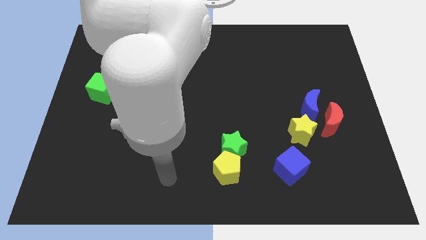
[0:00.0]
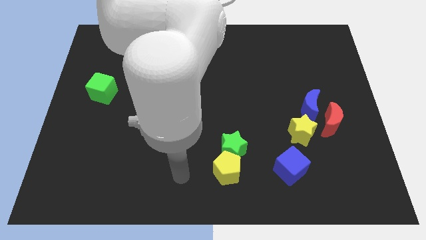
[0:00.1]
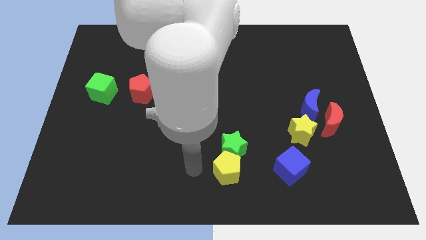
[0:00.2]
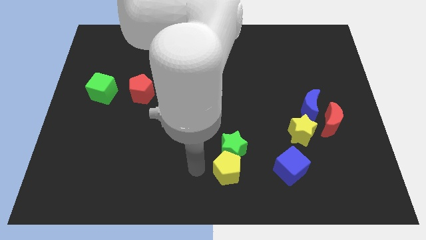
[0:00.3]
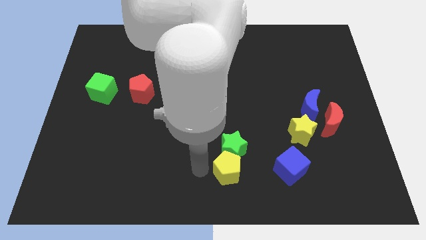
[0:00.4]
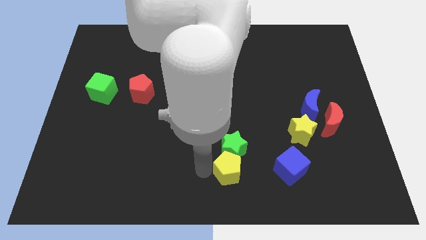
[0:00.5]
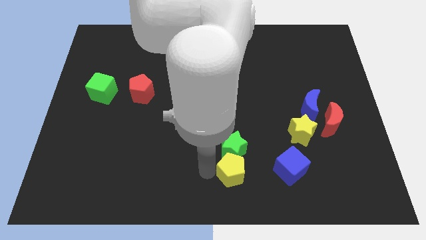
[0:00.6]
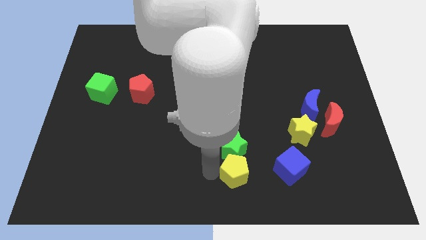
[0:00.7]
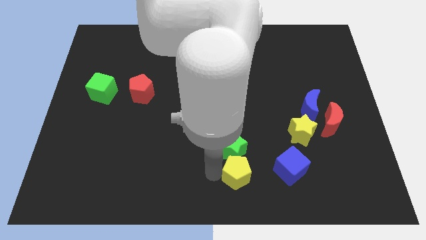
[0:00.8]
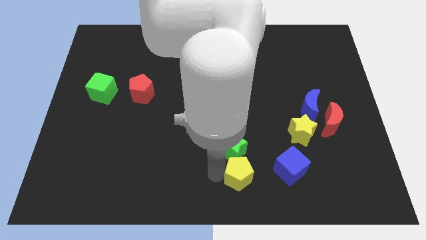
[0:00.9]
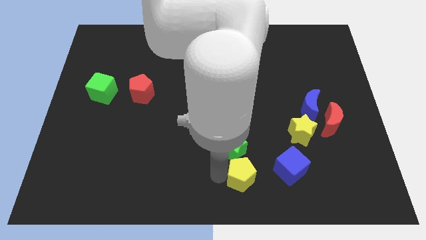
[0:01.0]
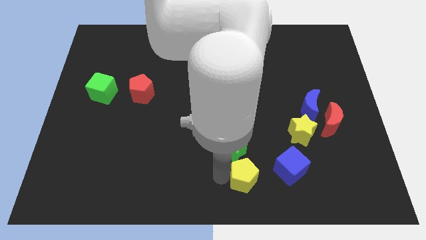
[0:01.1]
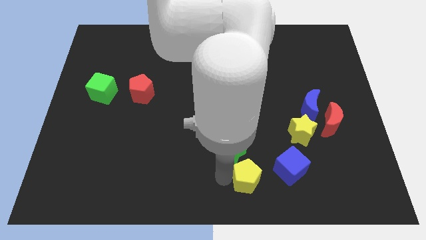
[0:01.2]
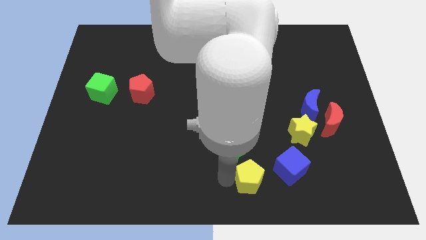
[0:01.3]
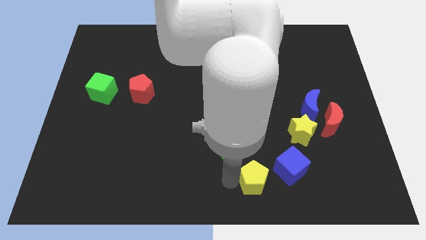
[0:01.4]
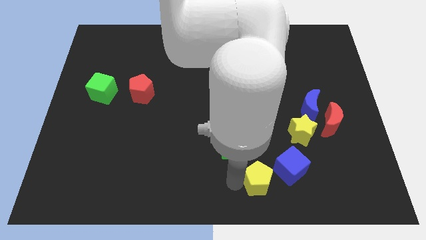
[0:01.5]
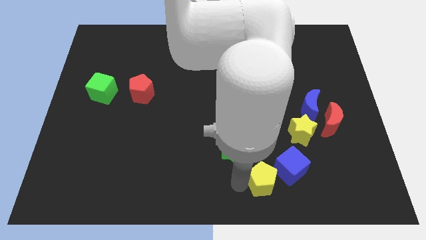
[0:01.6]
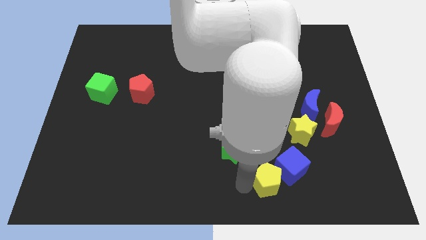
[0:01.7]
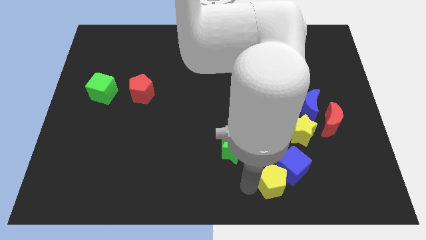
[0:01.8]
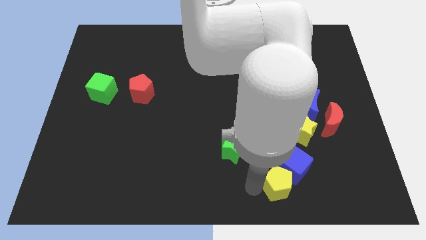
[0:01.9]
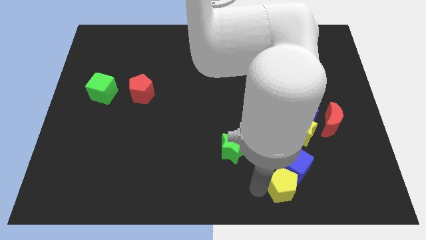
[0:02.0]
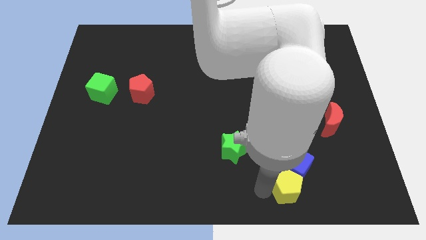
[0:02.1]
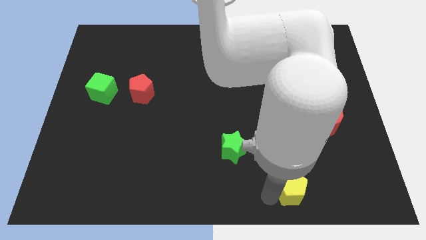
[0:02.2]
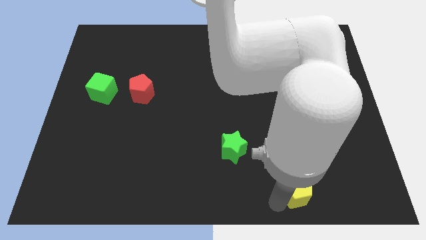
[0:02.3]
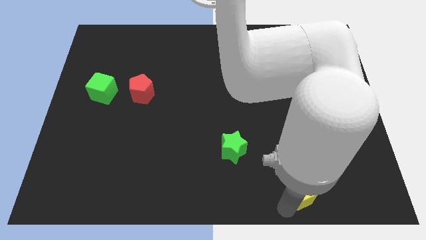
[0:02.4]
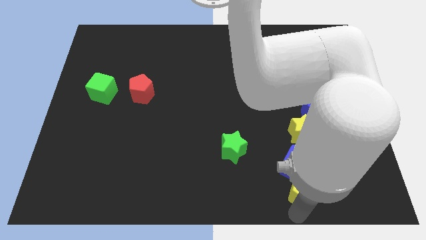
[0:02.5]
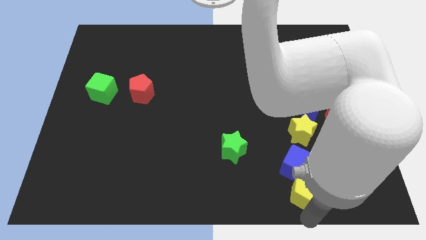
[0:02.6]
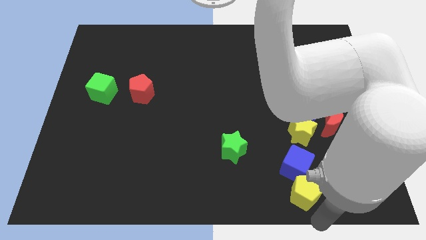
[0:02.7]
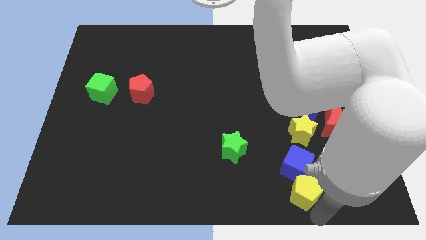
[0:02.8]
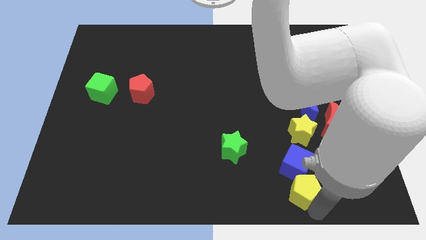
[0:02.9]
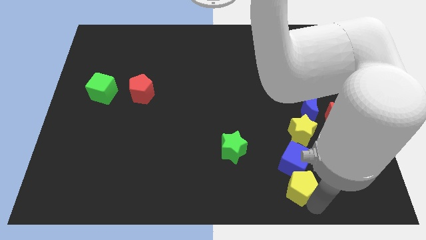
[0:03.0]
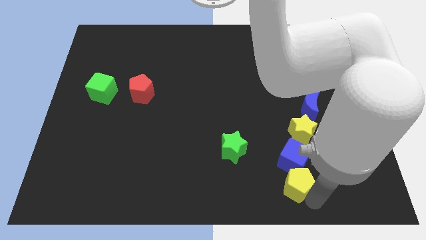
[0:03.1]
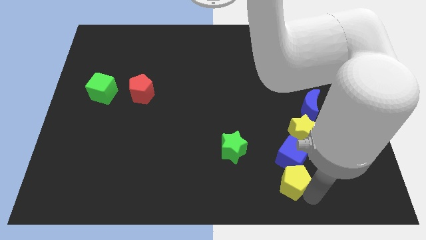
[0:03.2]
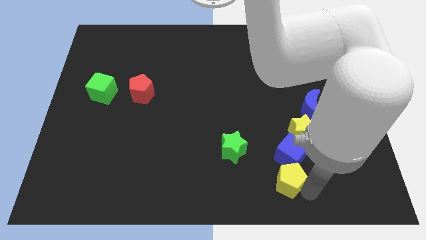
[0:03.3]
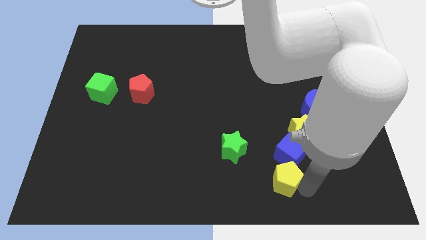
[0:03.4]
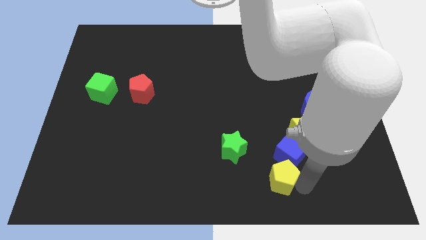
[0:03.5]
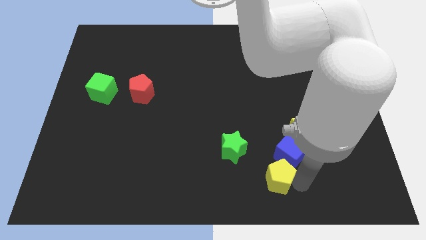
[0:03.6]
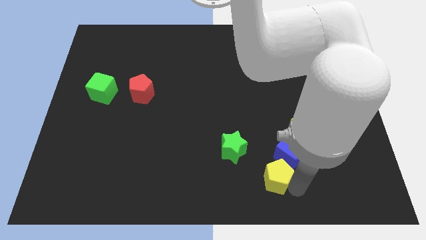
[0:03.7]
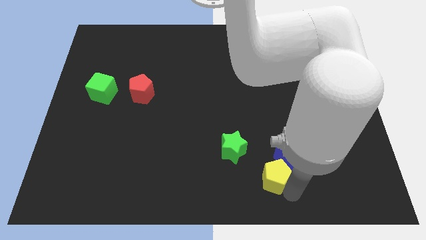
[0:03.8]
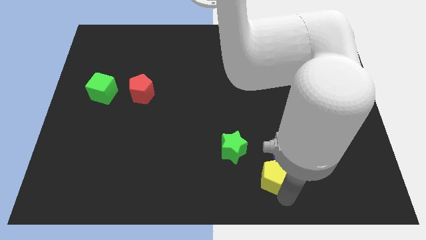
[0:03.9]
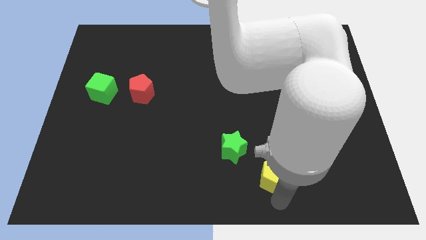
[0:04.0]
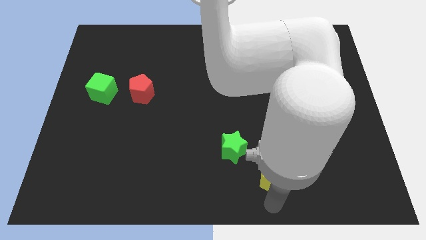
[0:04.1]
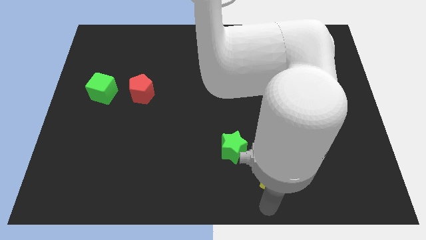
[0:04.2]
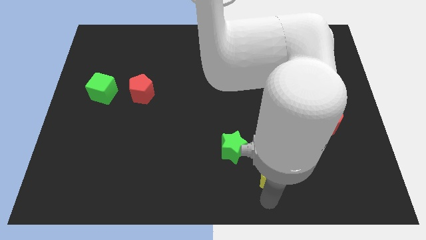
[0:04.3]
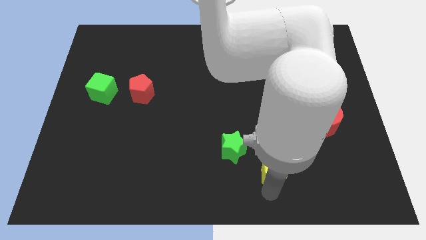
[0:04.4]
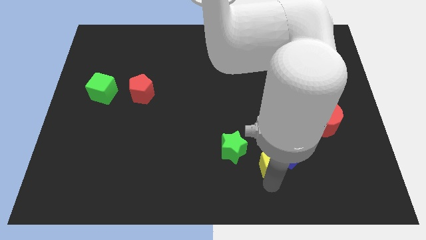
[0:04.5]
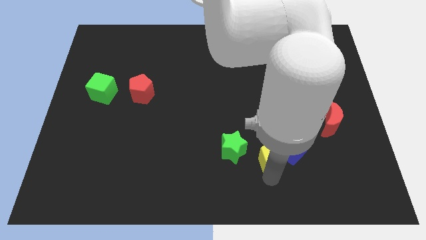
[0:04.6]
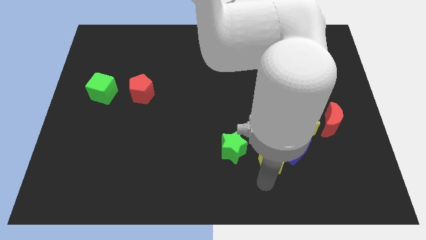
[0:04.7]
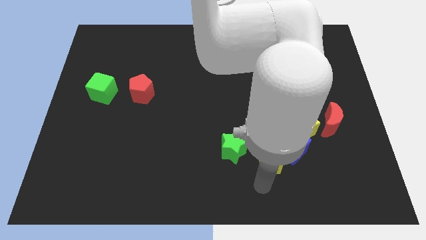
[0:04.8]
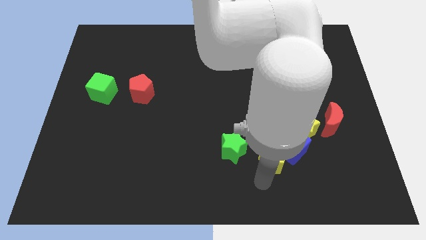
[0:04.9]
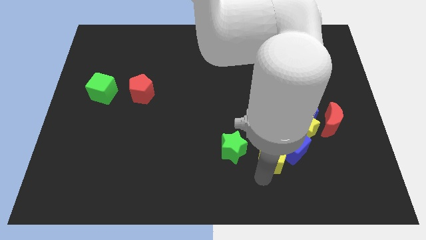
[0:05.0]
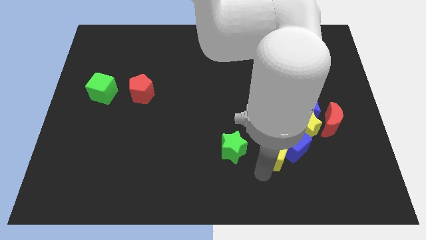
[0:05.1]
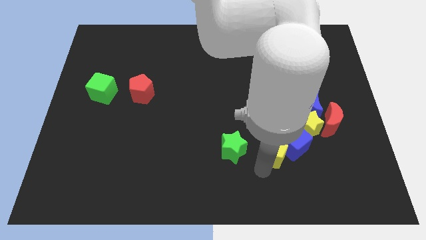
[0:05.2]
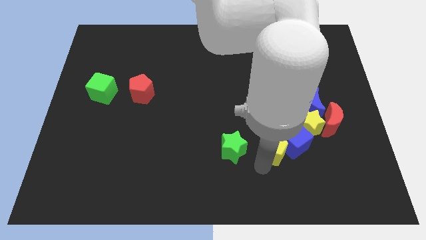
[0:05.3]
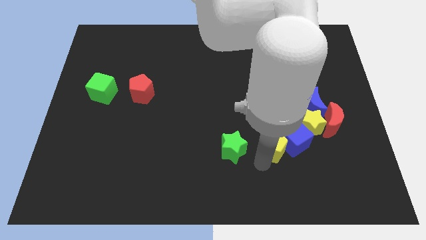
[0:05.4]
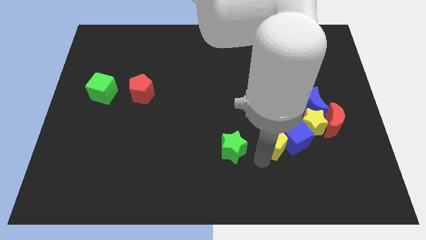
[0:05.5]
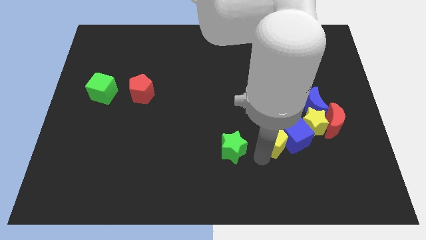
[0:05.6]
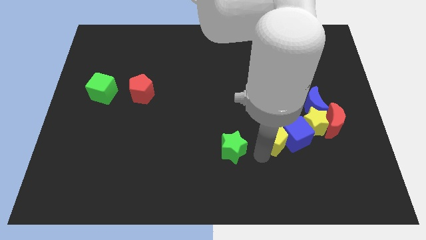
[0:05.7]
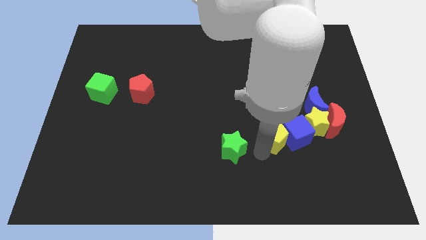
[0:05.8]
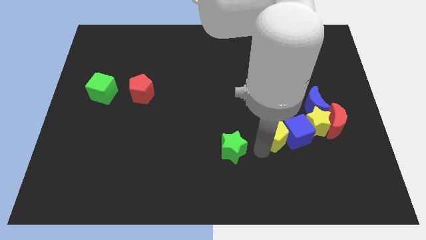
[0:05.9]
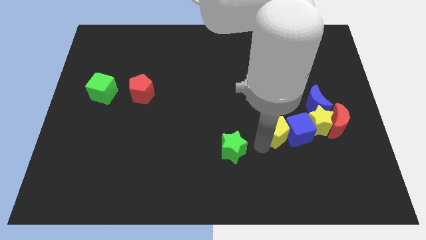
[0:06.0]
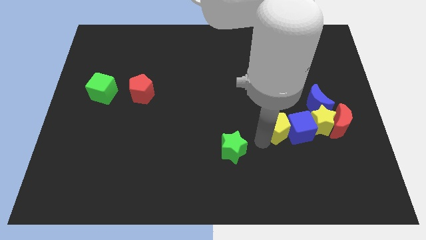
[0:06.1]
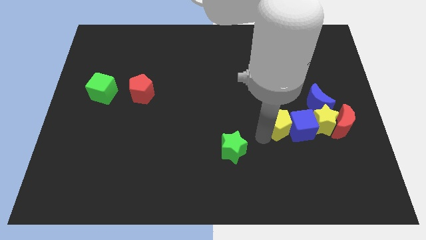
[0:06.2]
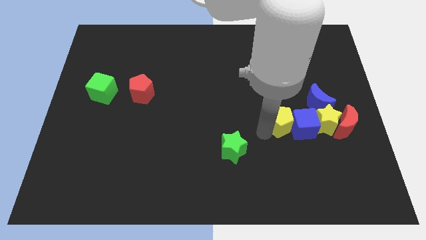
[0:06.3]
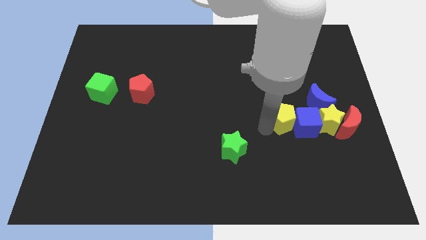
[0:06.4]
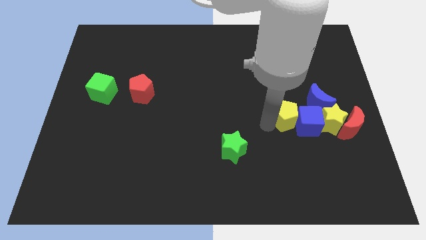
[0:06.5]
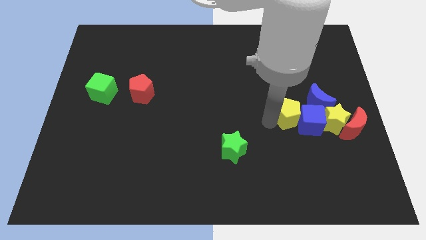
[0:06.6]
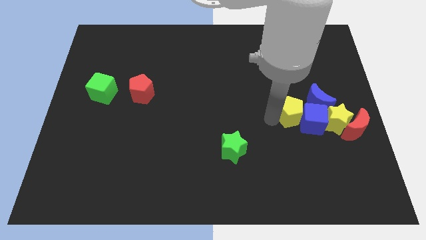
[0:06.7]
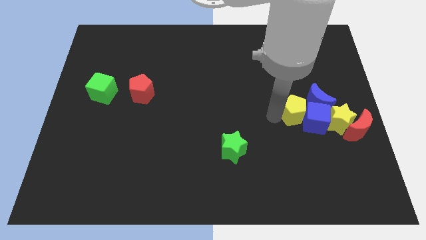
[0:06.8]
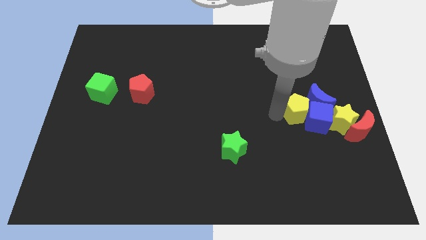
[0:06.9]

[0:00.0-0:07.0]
push the yellow pentagon next to the blue moon
